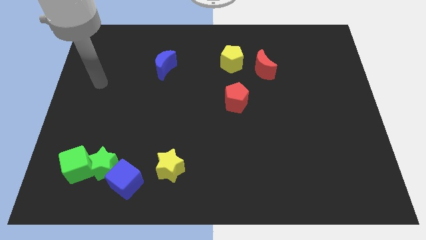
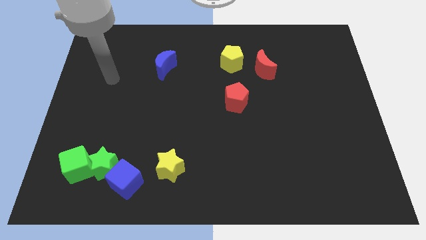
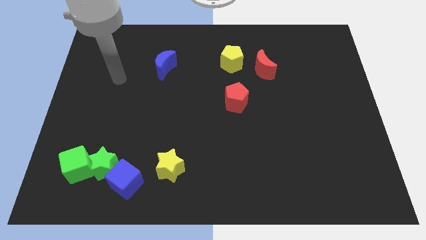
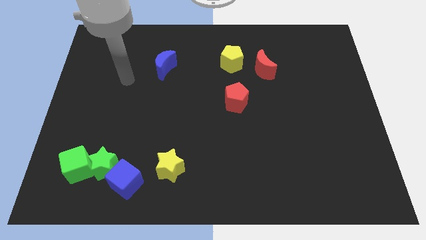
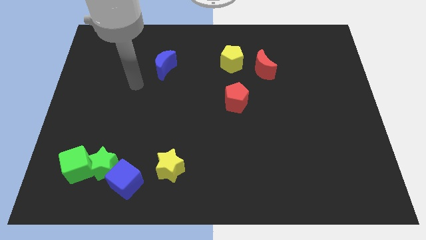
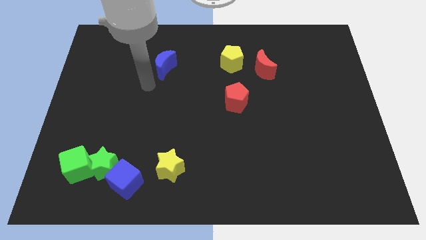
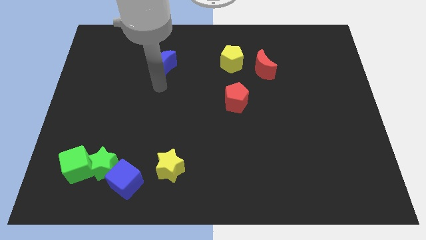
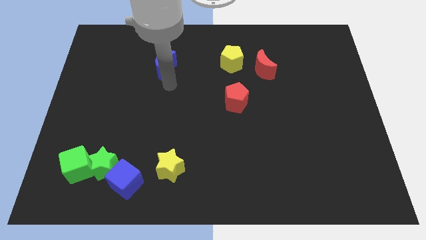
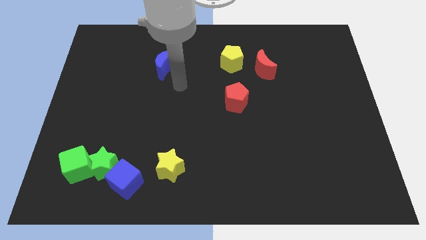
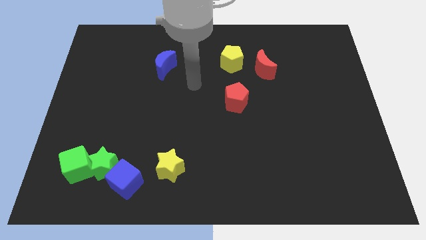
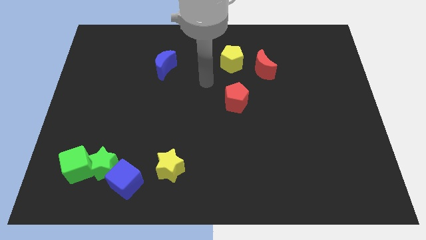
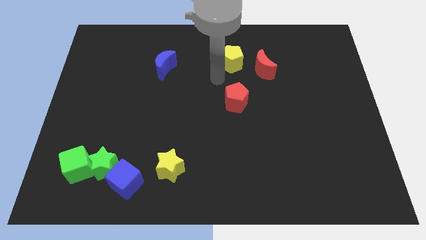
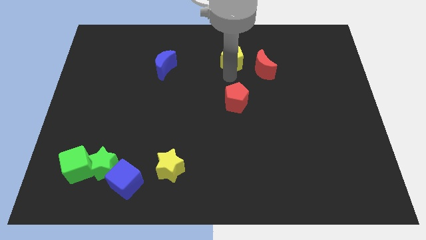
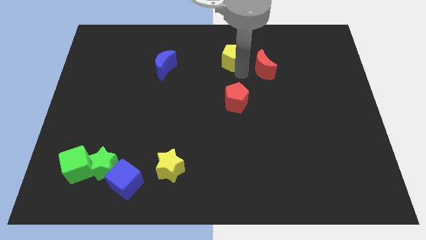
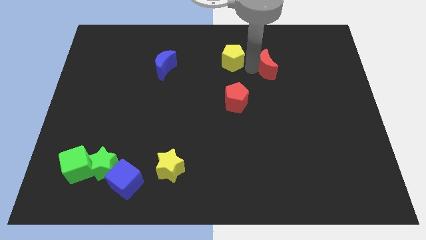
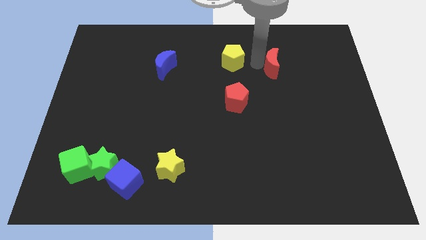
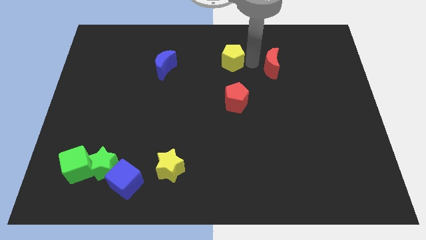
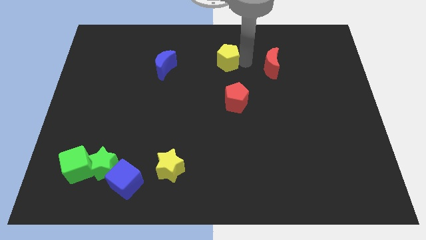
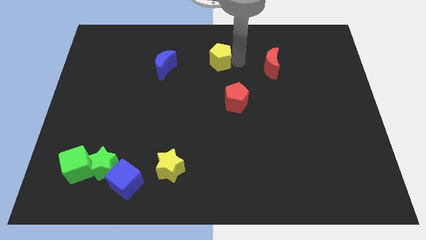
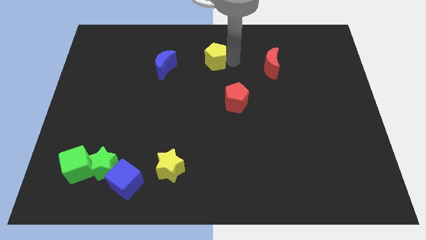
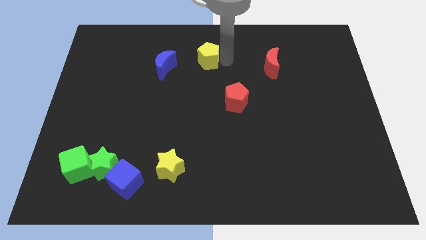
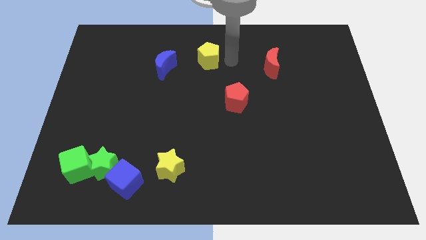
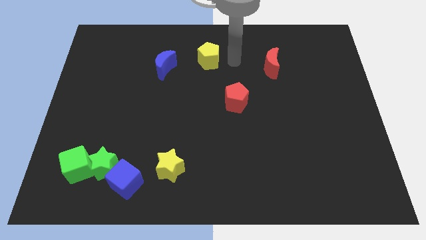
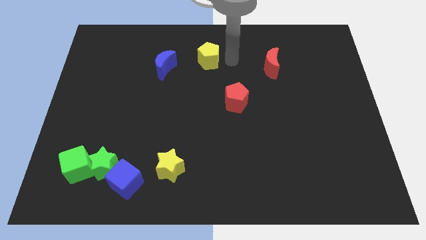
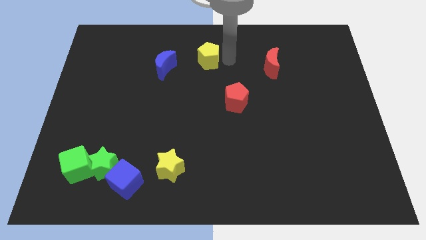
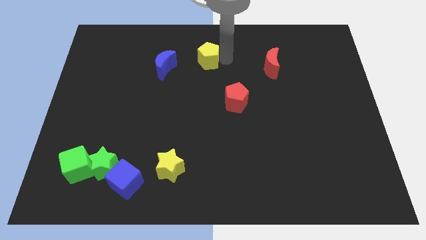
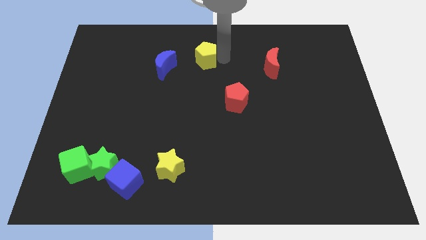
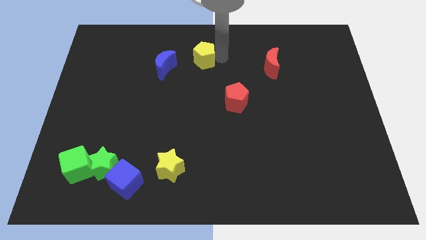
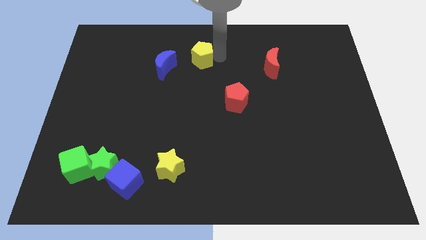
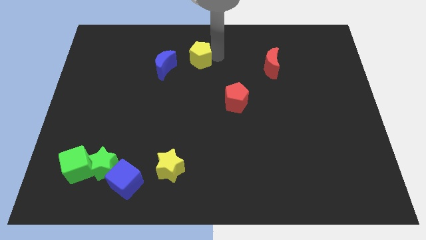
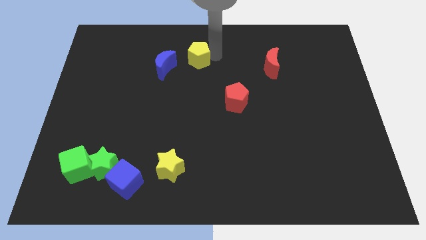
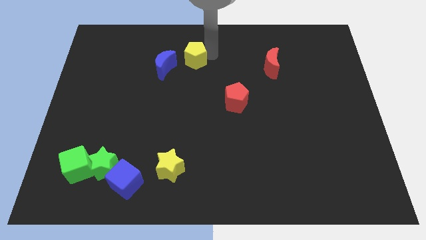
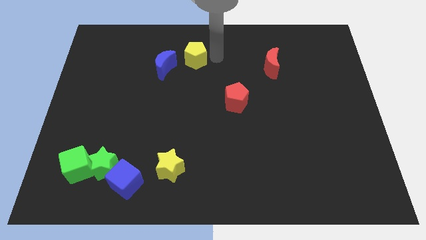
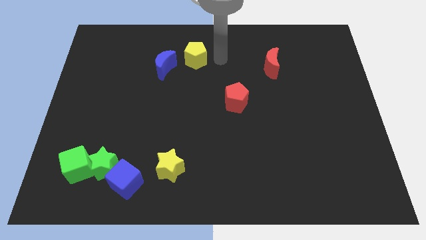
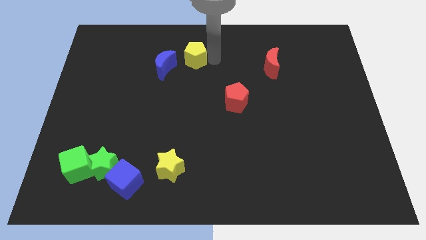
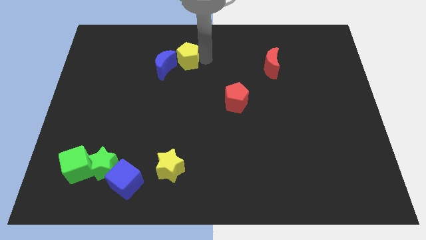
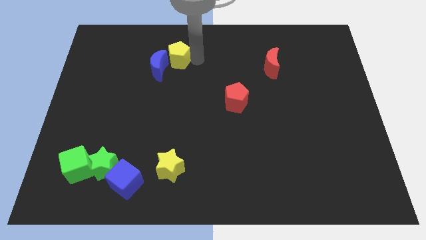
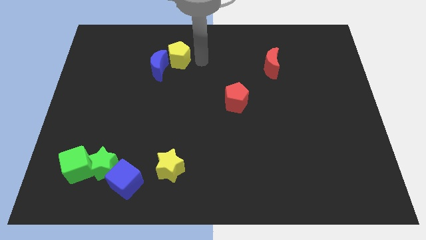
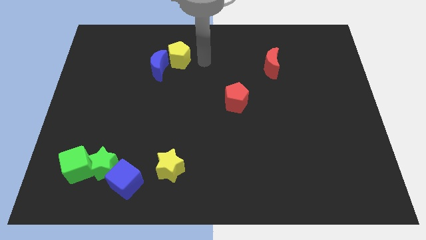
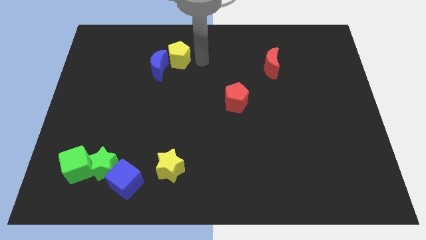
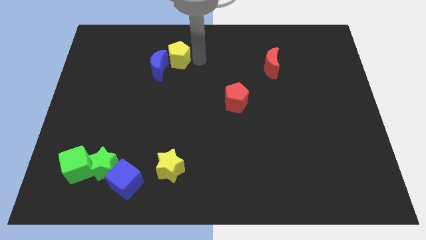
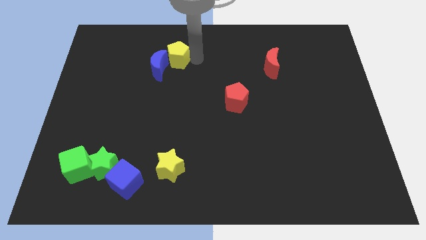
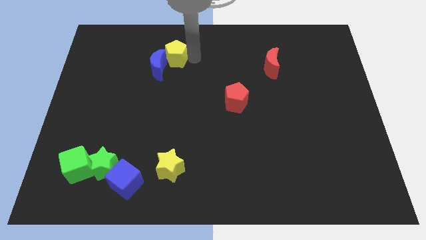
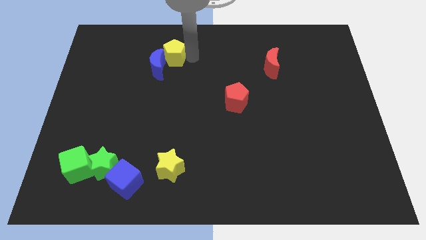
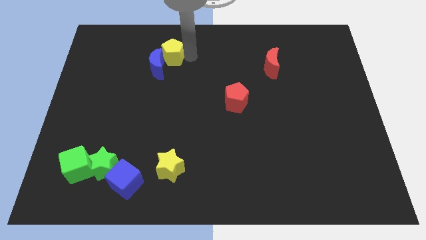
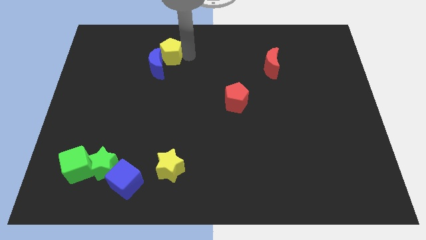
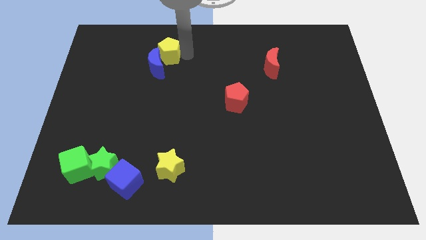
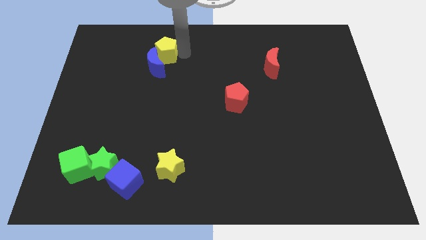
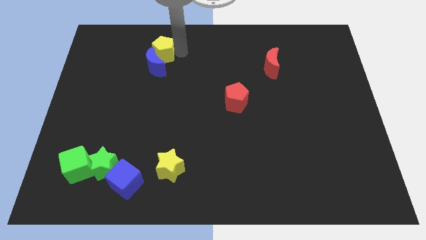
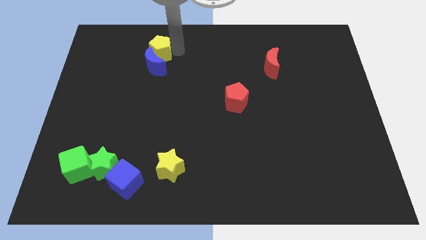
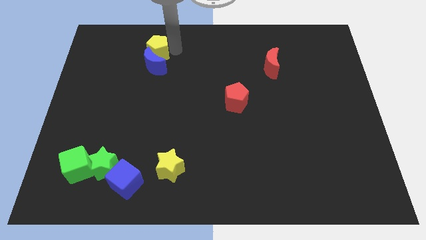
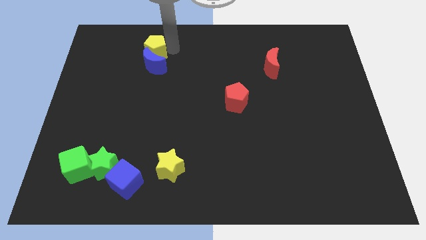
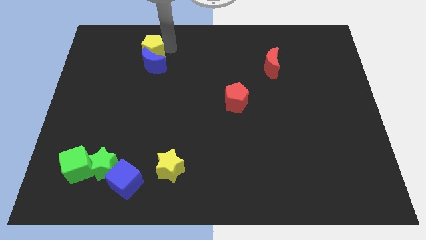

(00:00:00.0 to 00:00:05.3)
move the yellow pentagon left

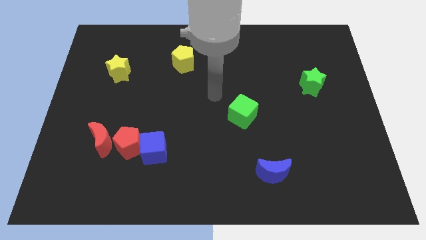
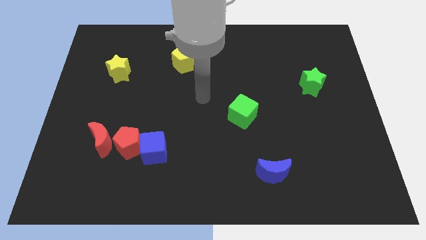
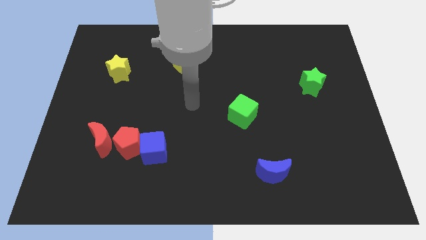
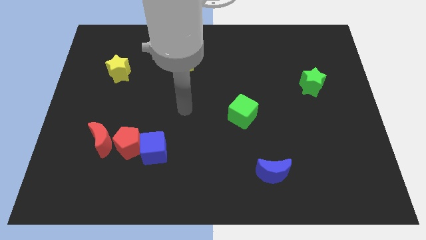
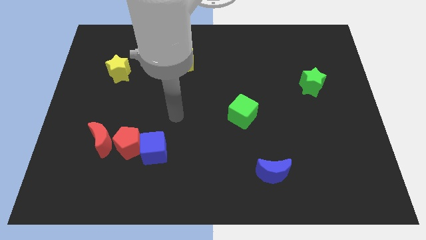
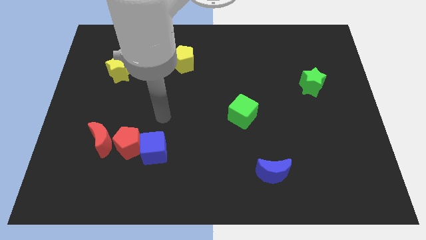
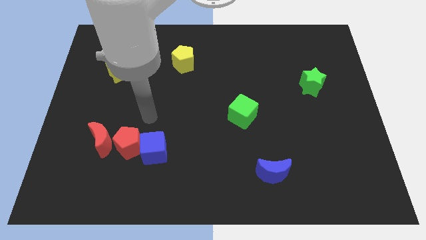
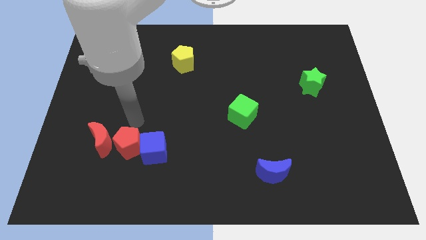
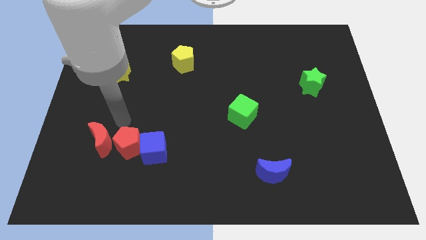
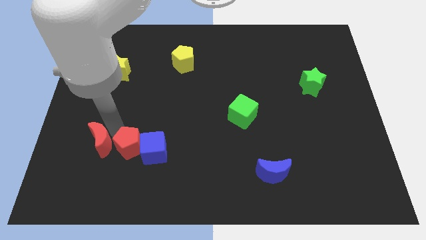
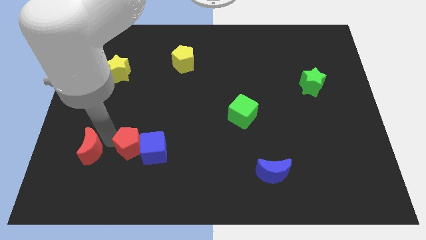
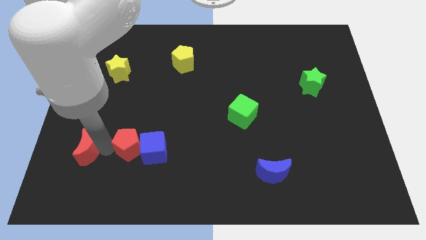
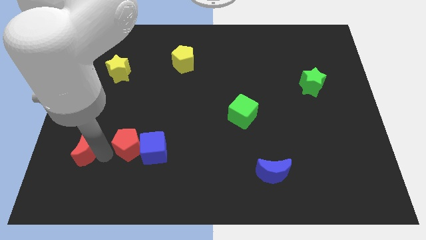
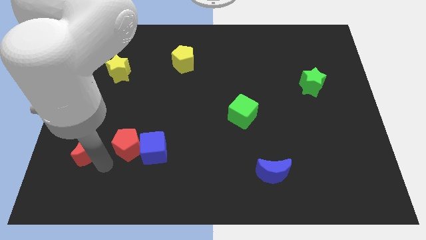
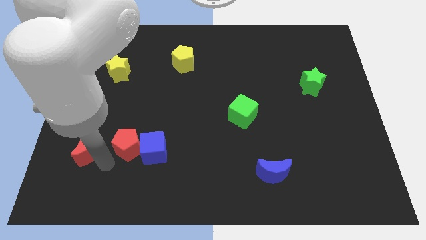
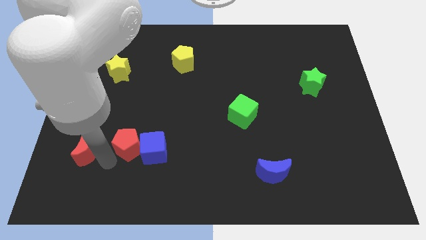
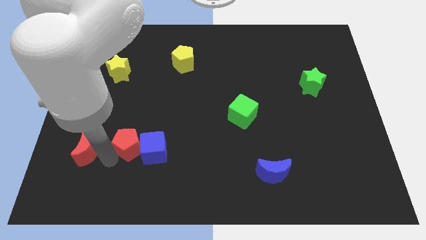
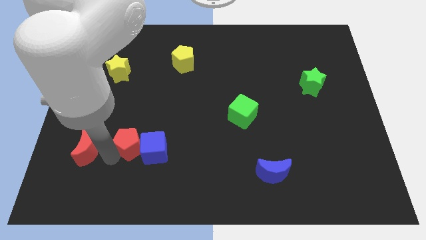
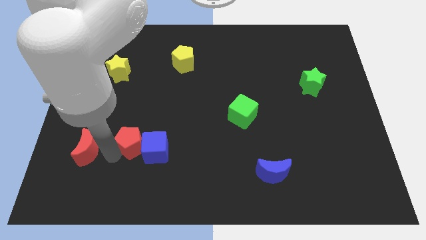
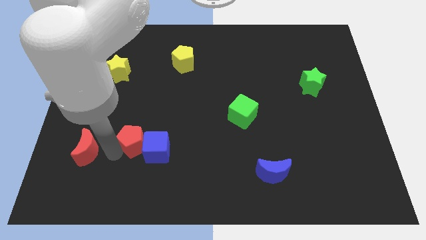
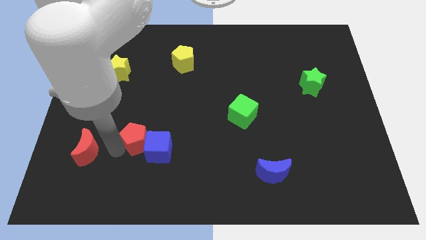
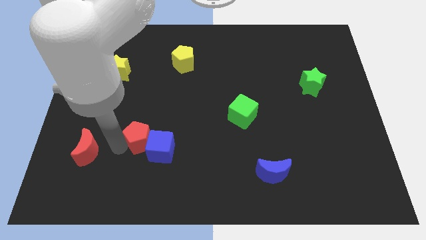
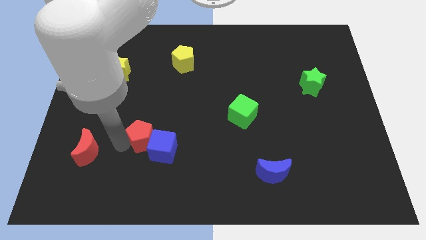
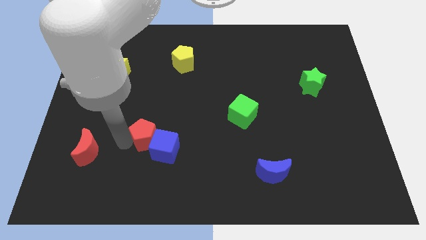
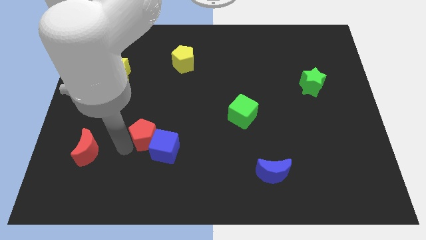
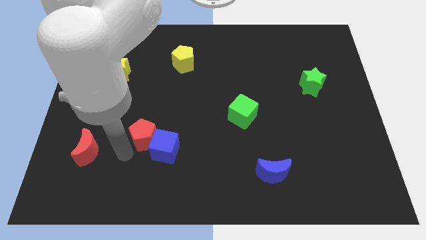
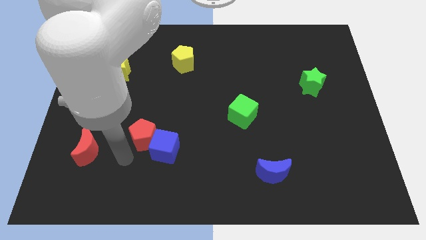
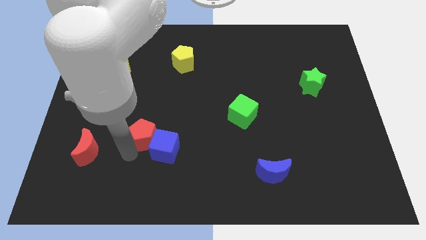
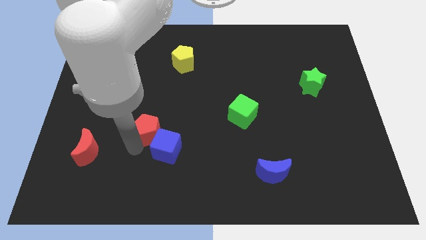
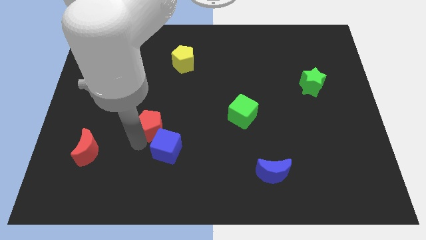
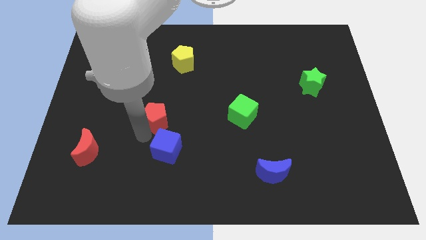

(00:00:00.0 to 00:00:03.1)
slide the red pentagon upwards and then right a little
